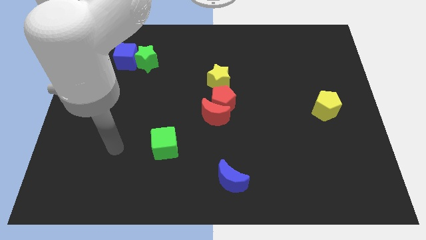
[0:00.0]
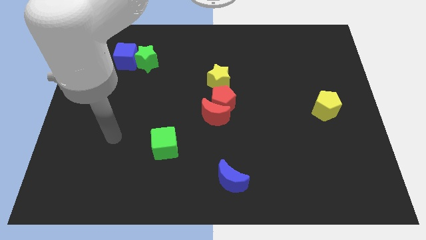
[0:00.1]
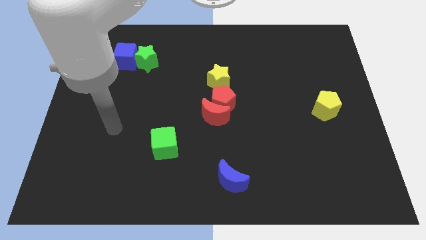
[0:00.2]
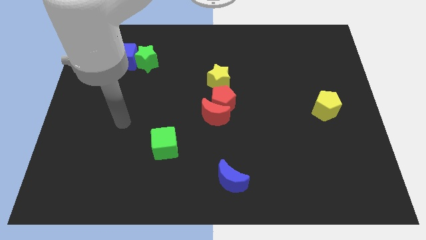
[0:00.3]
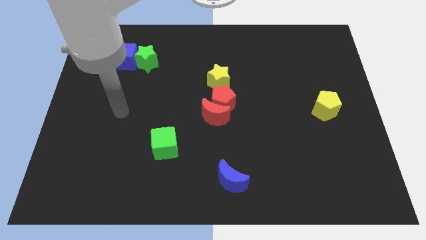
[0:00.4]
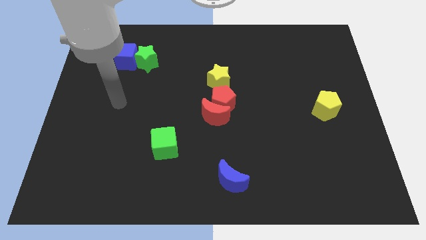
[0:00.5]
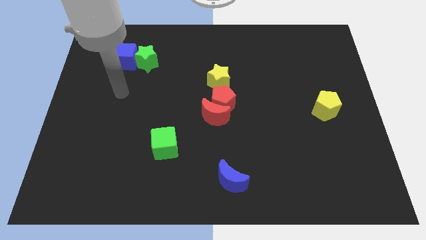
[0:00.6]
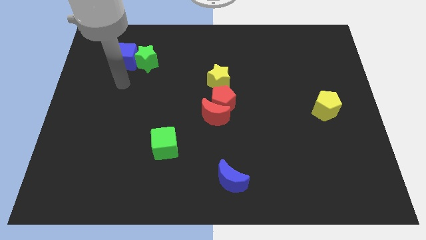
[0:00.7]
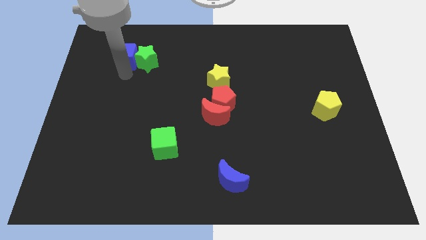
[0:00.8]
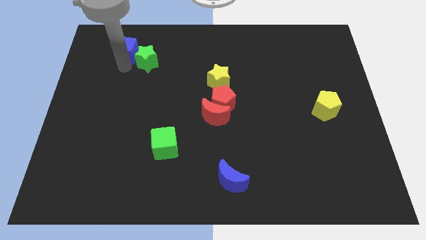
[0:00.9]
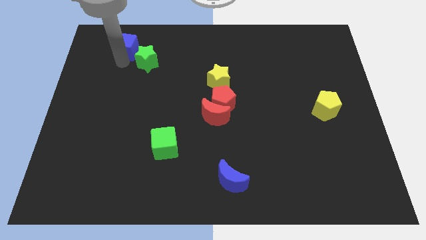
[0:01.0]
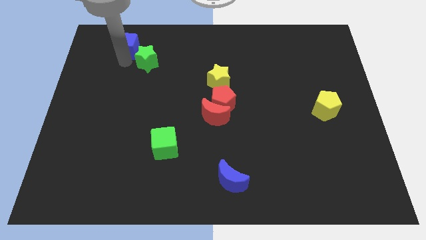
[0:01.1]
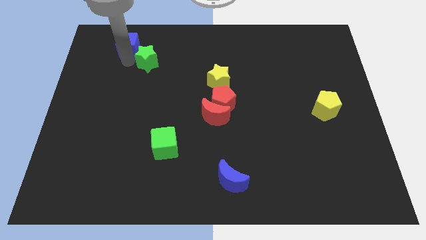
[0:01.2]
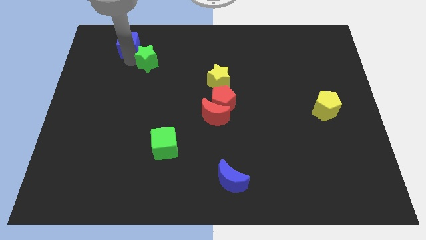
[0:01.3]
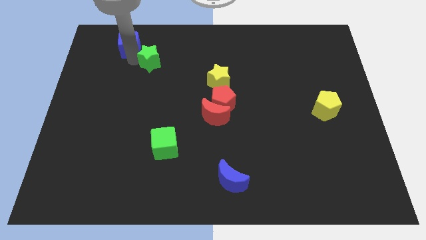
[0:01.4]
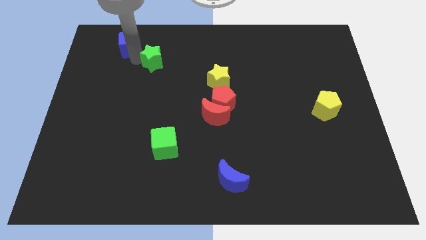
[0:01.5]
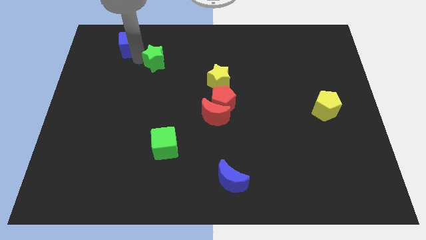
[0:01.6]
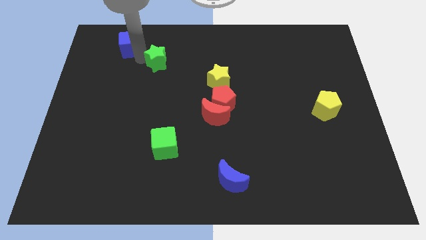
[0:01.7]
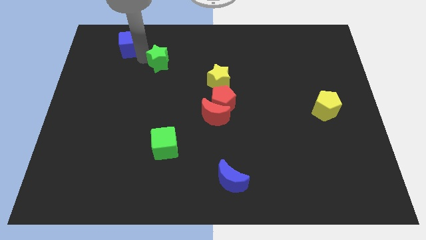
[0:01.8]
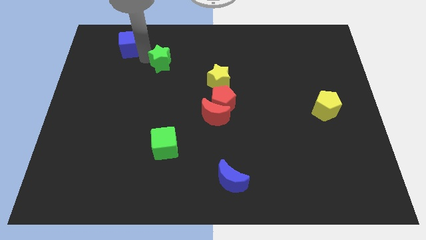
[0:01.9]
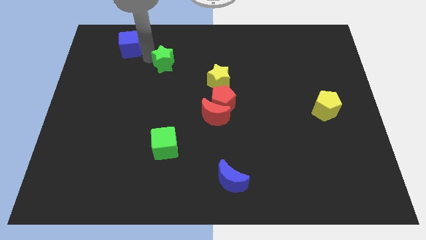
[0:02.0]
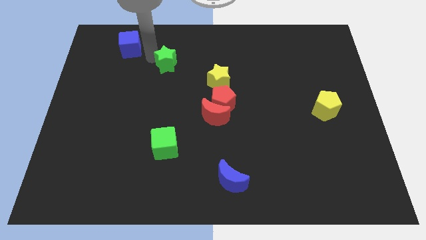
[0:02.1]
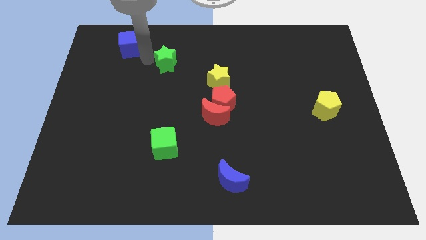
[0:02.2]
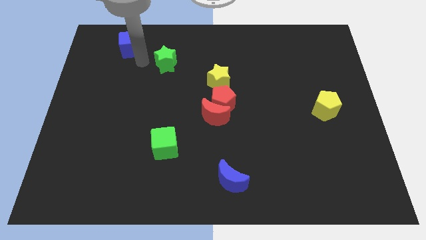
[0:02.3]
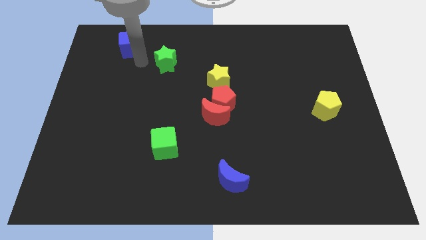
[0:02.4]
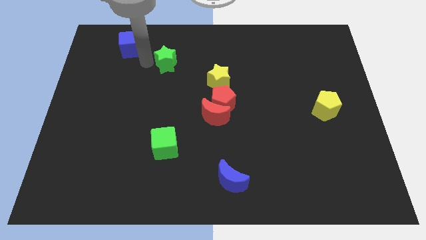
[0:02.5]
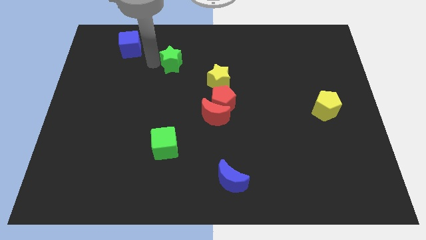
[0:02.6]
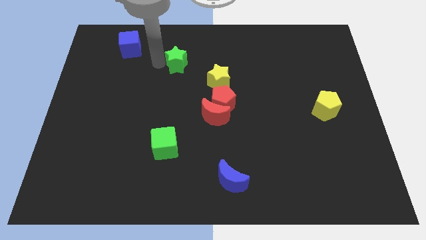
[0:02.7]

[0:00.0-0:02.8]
push the green star a little to the right

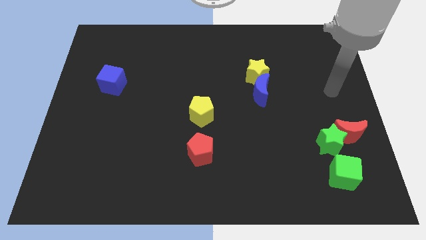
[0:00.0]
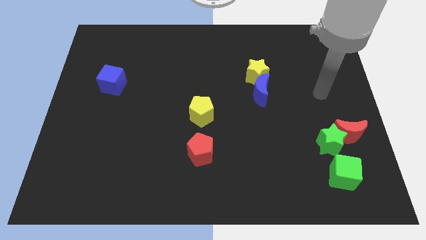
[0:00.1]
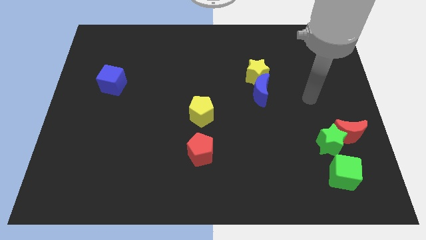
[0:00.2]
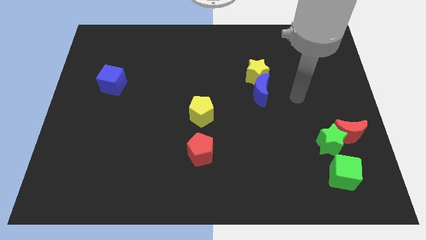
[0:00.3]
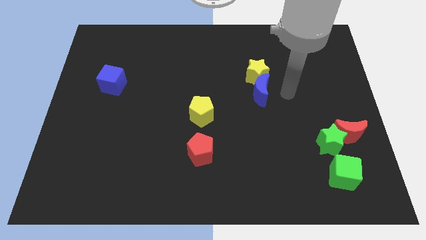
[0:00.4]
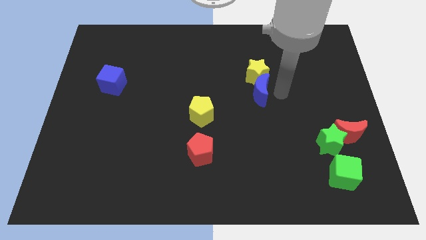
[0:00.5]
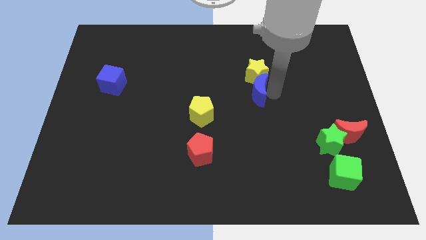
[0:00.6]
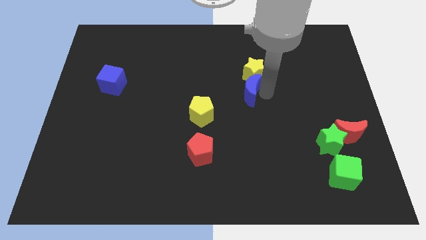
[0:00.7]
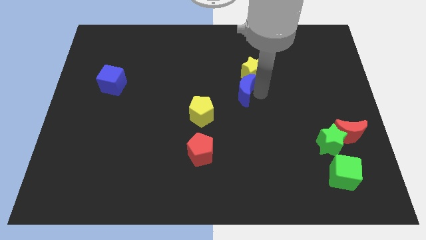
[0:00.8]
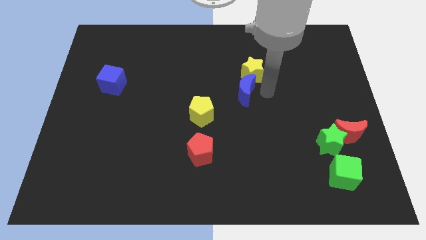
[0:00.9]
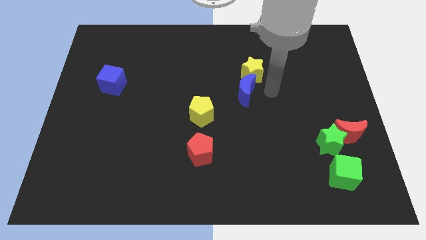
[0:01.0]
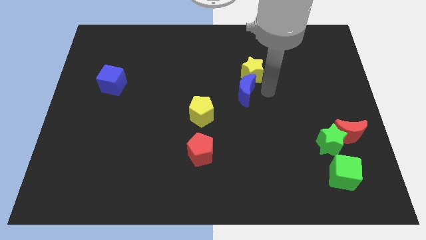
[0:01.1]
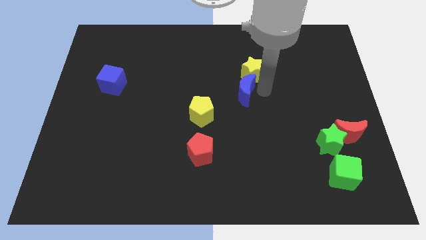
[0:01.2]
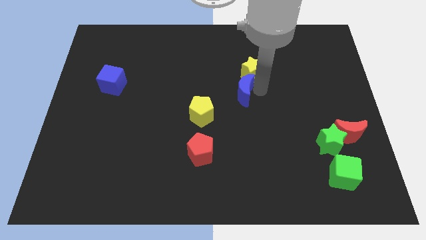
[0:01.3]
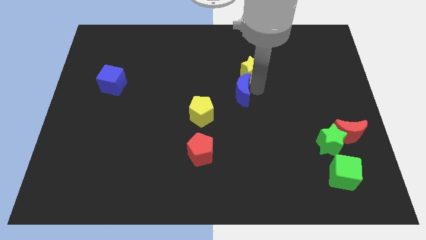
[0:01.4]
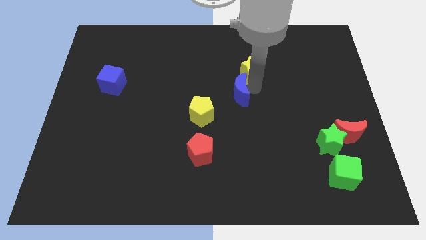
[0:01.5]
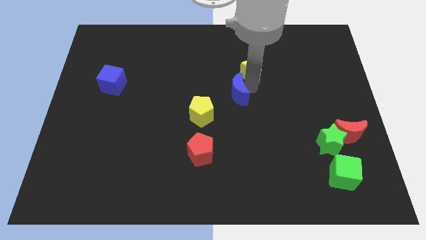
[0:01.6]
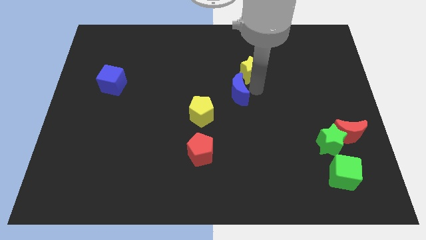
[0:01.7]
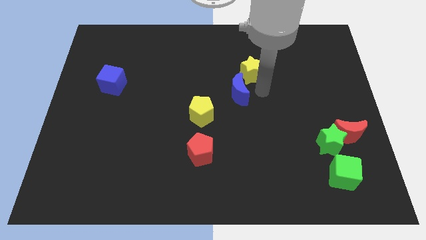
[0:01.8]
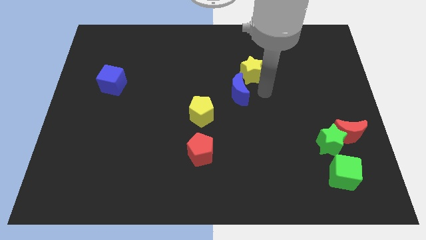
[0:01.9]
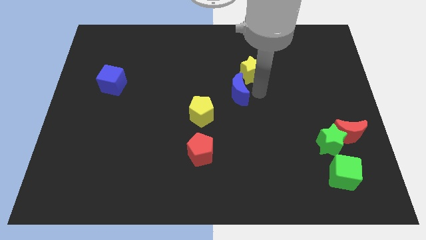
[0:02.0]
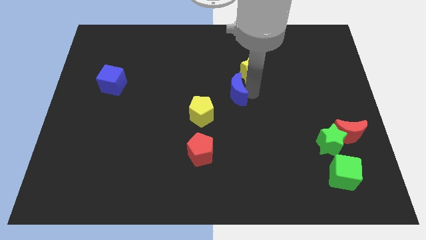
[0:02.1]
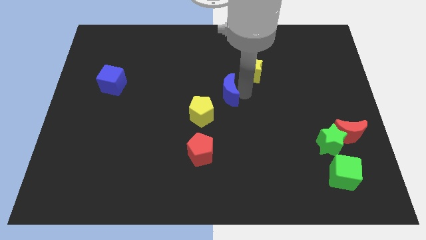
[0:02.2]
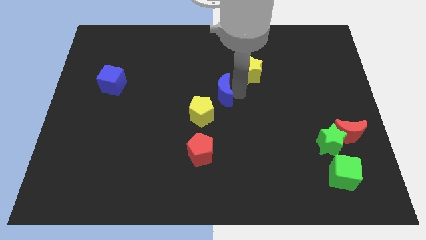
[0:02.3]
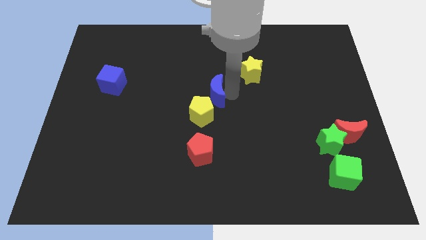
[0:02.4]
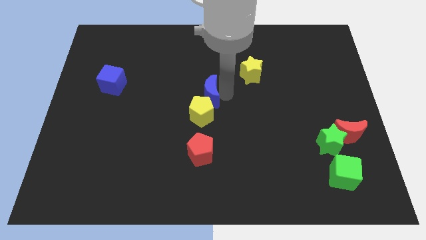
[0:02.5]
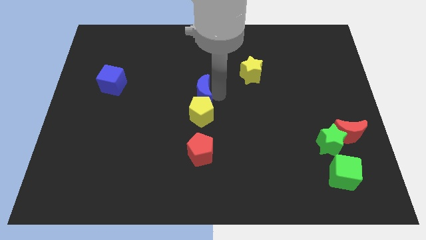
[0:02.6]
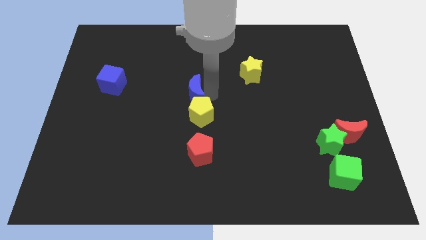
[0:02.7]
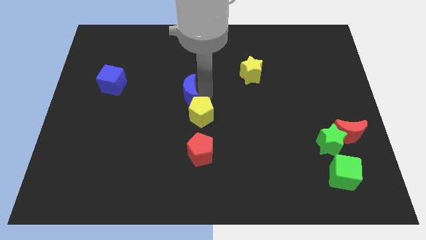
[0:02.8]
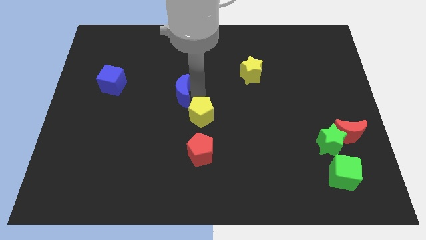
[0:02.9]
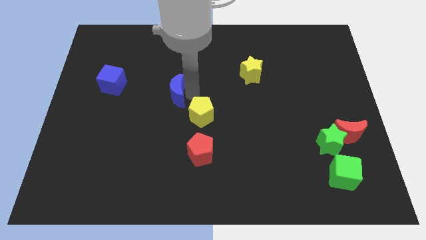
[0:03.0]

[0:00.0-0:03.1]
move the blue moon left

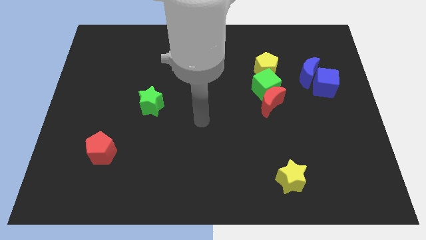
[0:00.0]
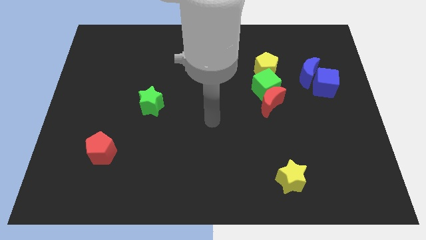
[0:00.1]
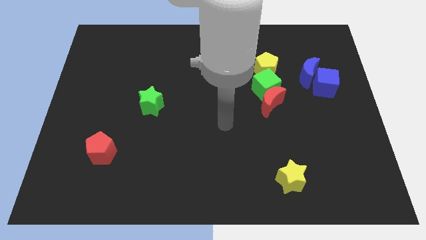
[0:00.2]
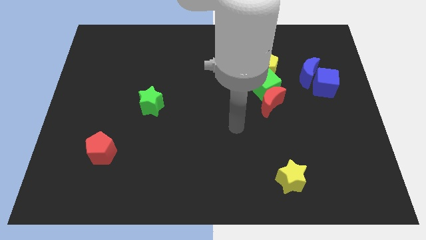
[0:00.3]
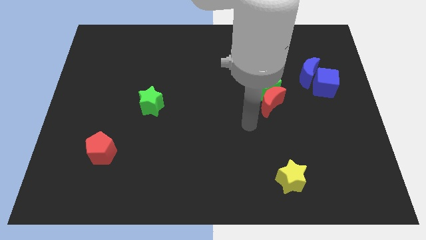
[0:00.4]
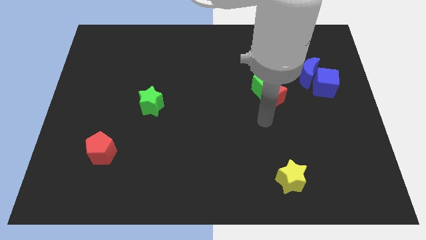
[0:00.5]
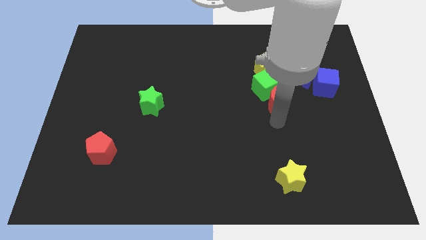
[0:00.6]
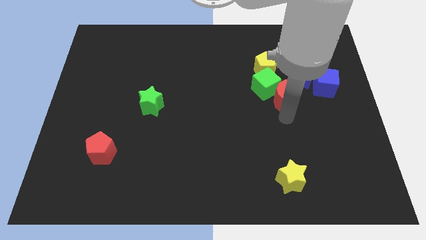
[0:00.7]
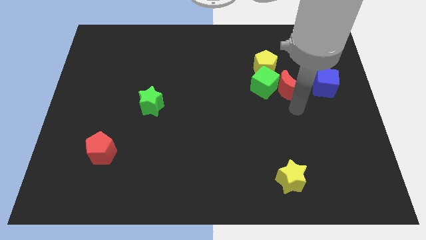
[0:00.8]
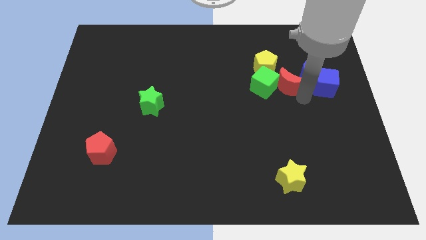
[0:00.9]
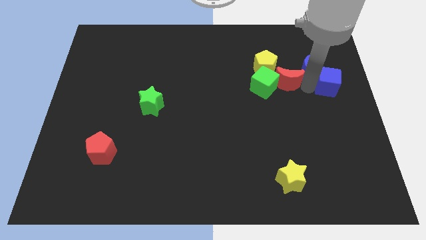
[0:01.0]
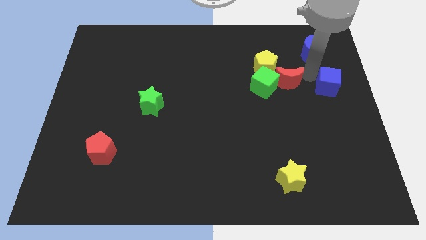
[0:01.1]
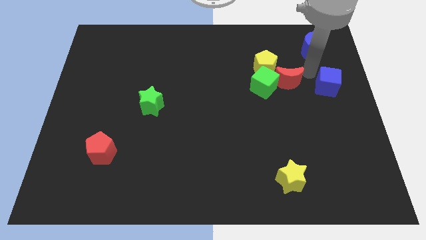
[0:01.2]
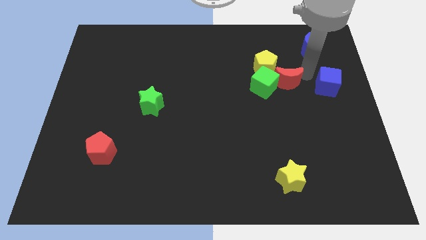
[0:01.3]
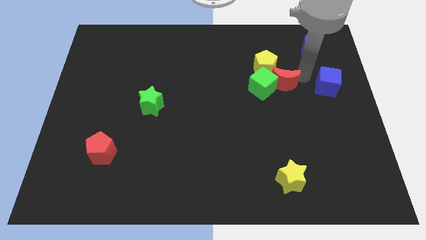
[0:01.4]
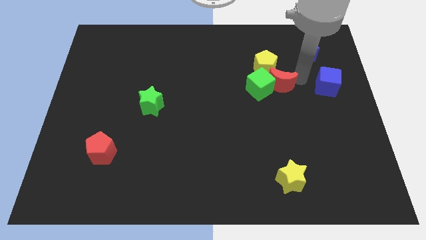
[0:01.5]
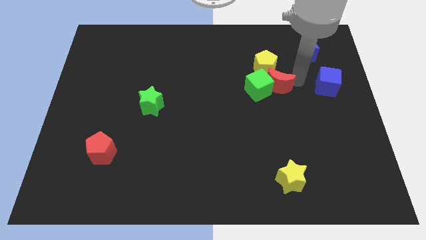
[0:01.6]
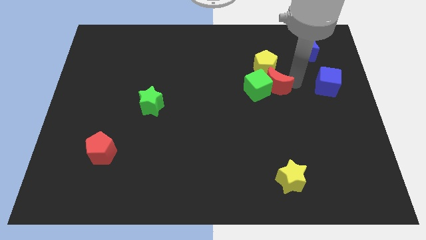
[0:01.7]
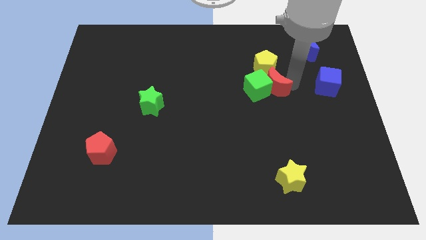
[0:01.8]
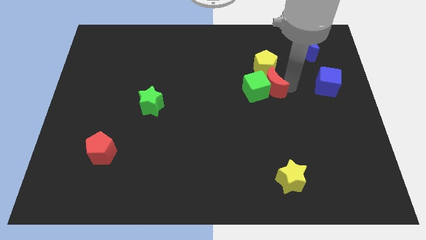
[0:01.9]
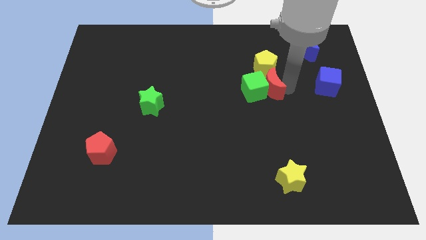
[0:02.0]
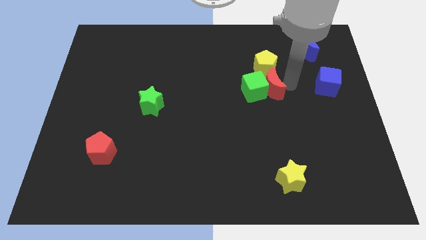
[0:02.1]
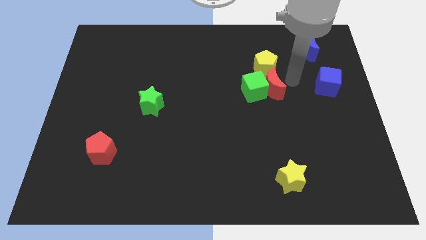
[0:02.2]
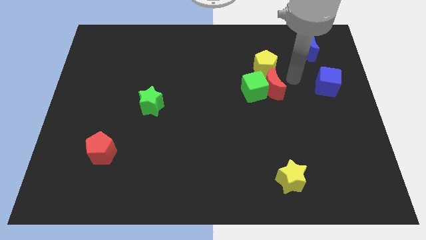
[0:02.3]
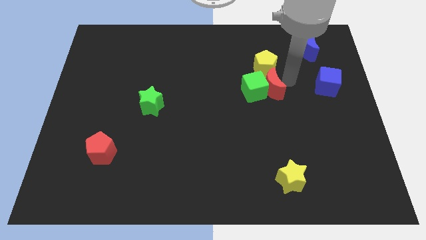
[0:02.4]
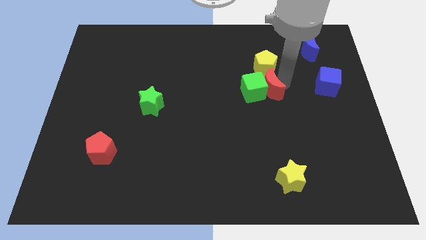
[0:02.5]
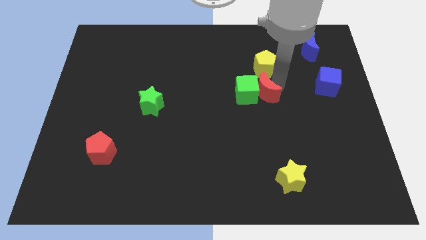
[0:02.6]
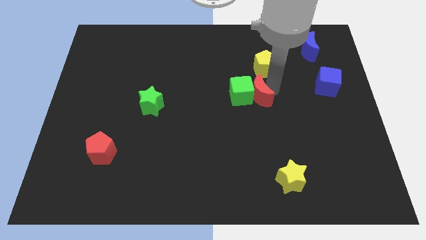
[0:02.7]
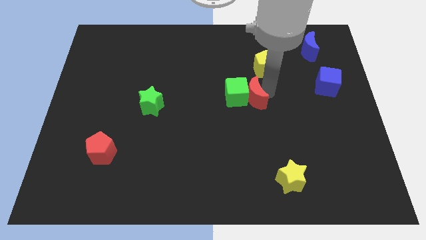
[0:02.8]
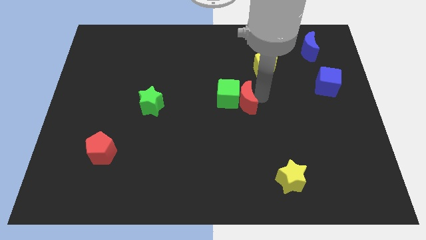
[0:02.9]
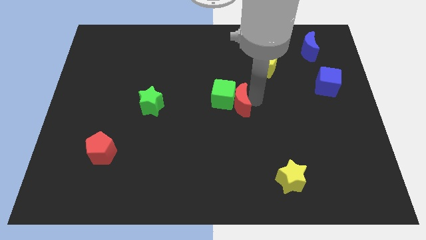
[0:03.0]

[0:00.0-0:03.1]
push the red moon left somewhat
